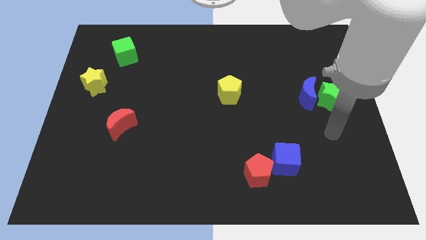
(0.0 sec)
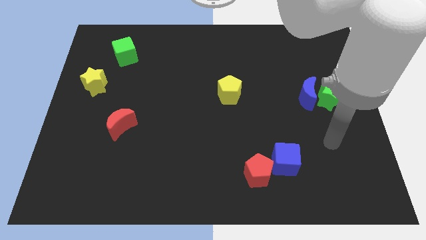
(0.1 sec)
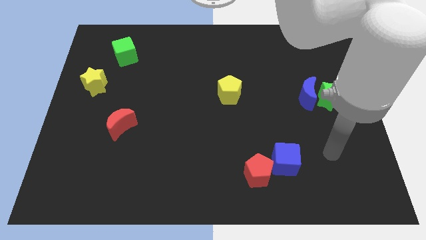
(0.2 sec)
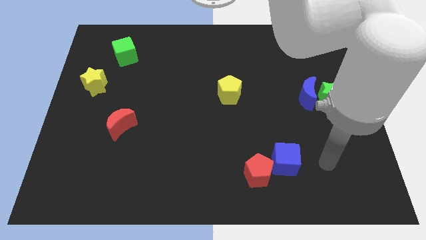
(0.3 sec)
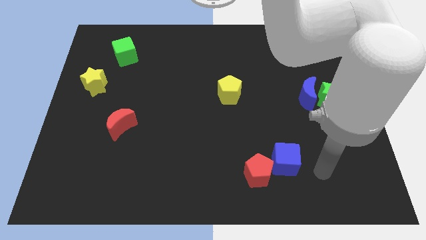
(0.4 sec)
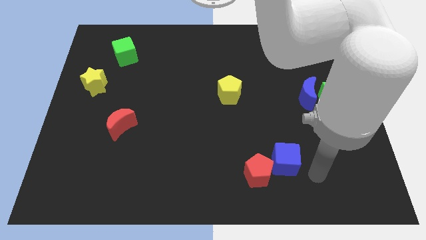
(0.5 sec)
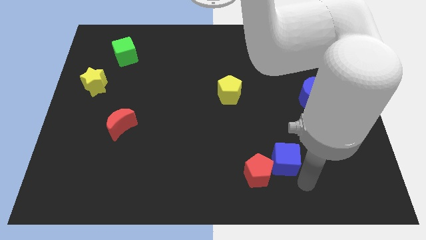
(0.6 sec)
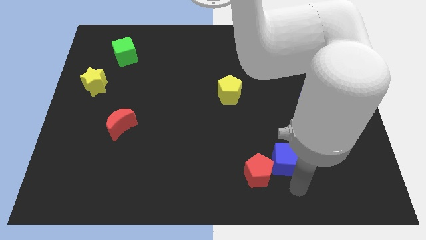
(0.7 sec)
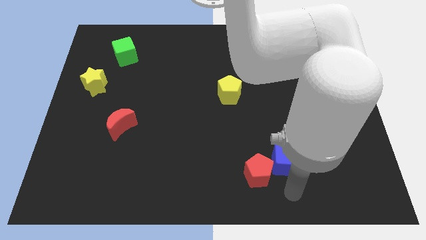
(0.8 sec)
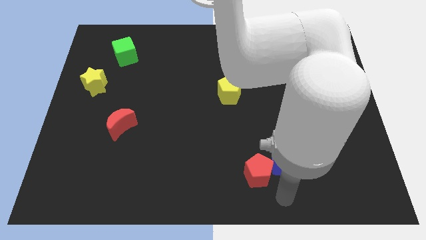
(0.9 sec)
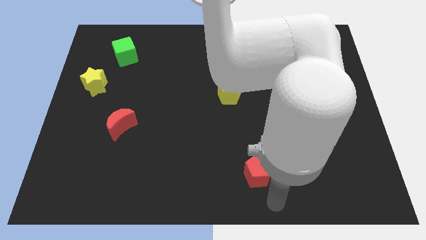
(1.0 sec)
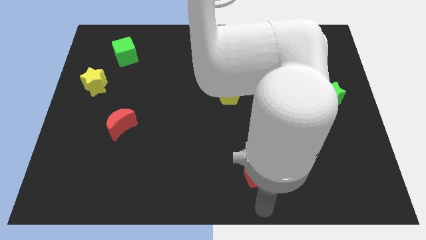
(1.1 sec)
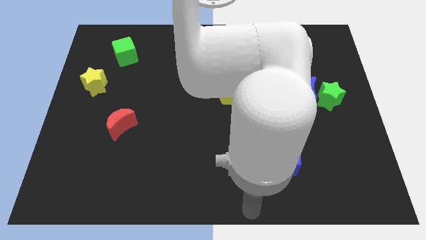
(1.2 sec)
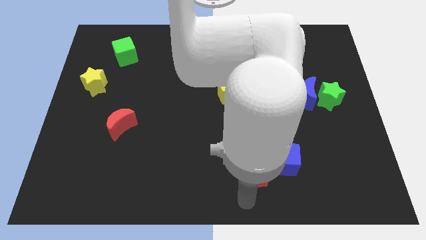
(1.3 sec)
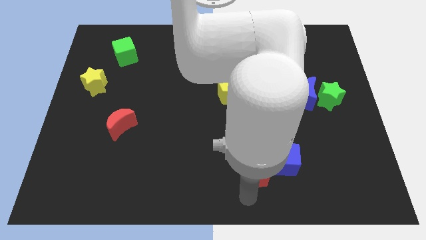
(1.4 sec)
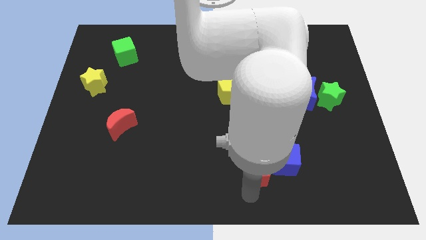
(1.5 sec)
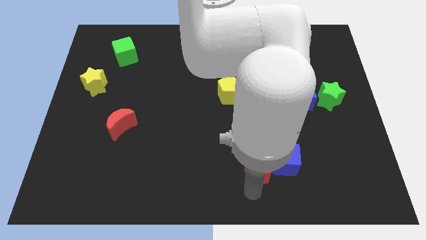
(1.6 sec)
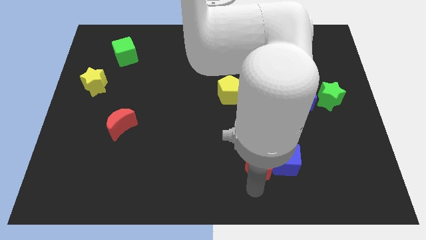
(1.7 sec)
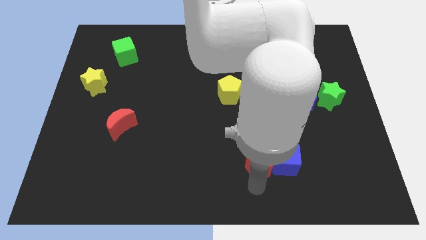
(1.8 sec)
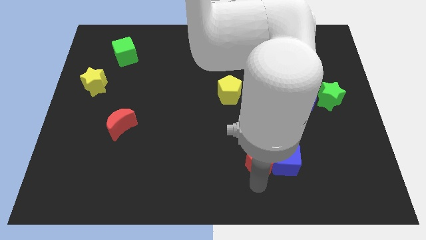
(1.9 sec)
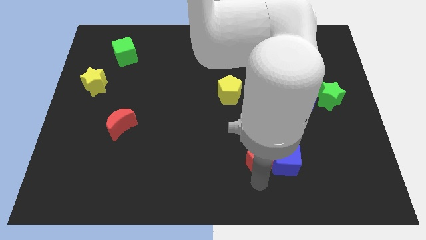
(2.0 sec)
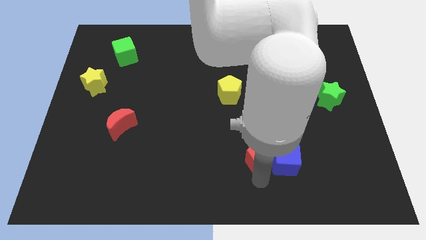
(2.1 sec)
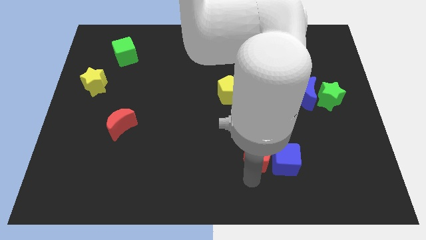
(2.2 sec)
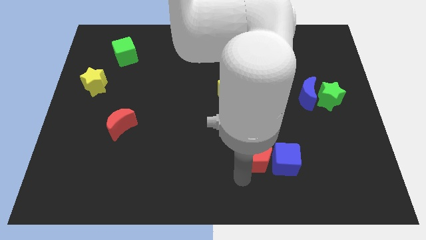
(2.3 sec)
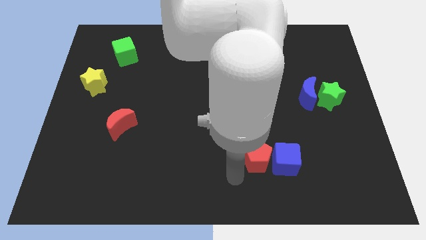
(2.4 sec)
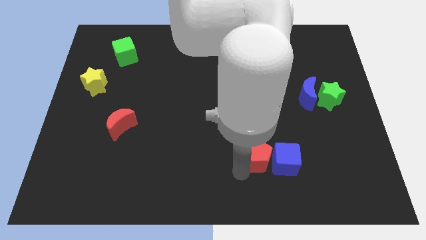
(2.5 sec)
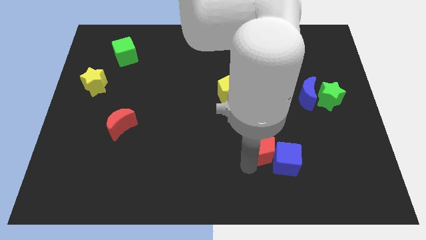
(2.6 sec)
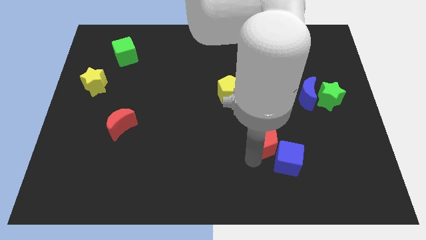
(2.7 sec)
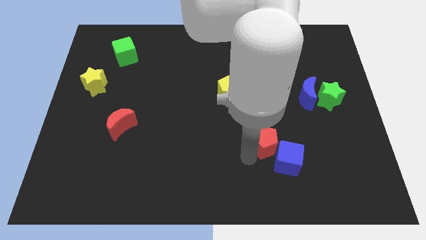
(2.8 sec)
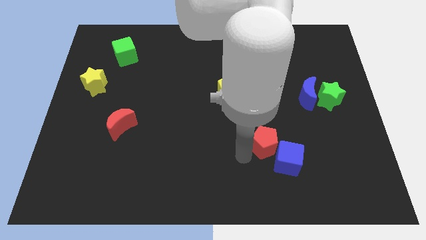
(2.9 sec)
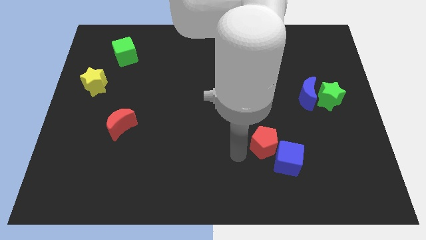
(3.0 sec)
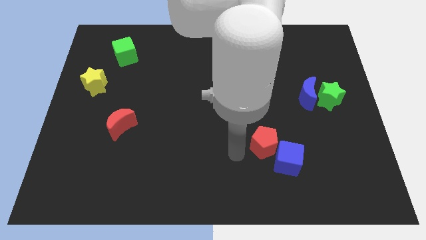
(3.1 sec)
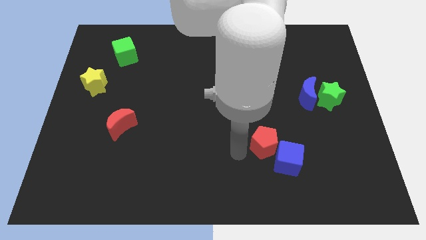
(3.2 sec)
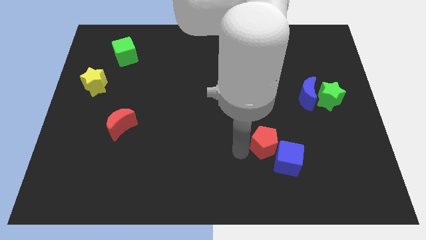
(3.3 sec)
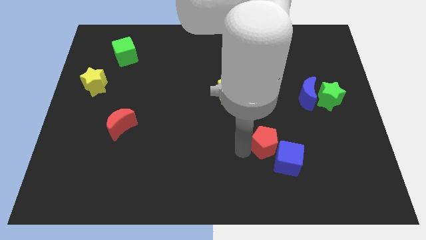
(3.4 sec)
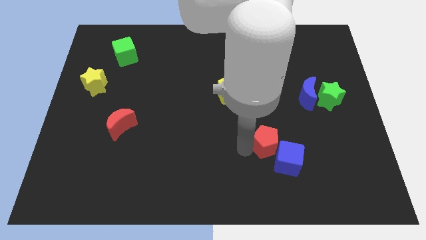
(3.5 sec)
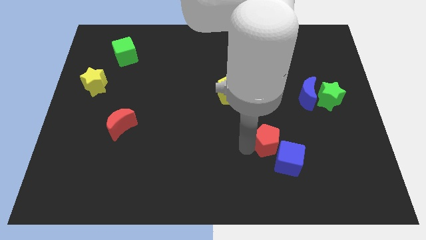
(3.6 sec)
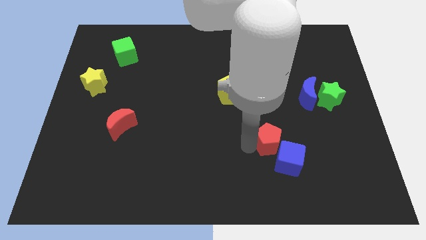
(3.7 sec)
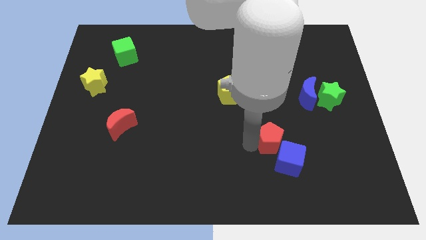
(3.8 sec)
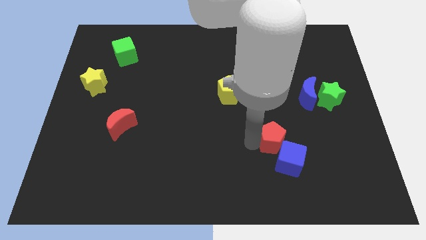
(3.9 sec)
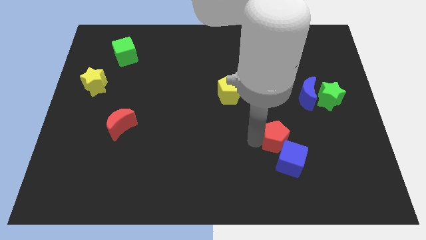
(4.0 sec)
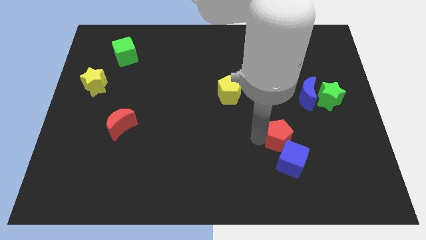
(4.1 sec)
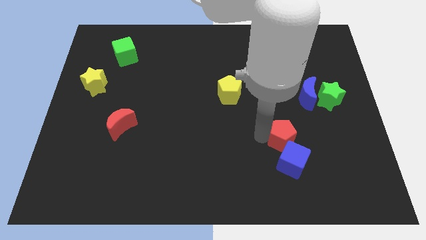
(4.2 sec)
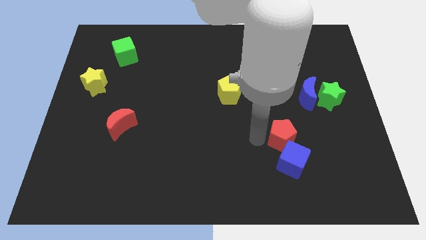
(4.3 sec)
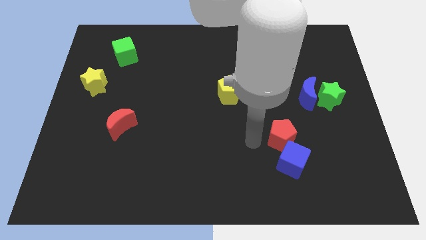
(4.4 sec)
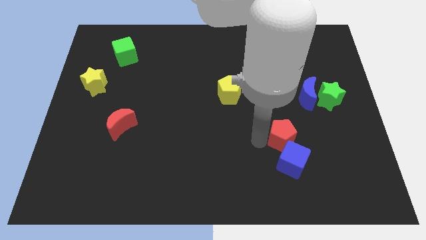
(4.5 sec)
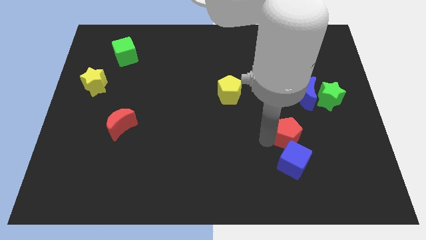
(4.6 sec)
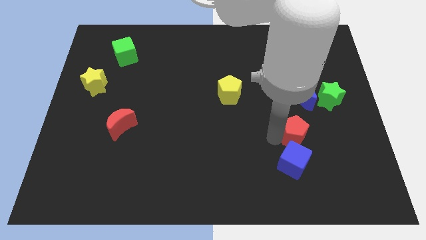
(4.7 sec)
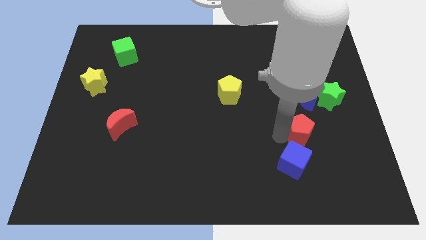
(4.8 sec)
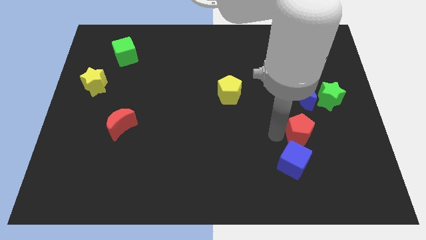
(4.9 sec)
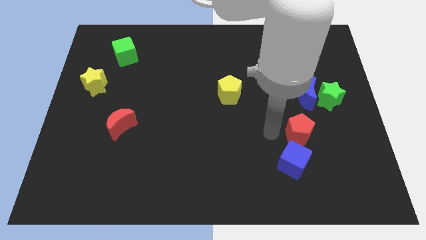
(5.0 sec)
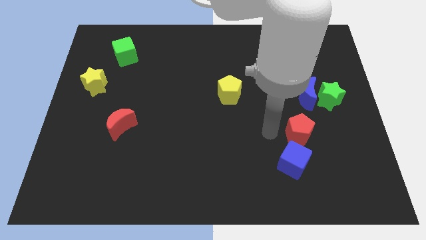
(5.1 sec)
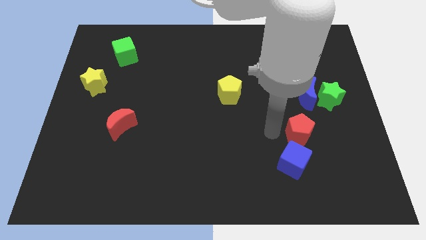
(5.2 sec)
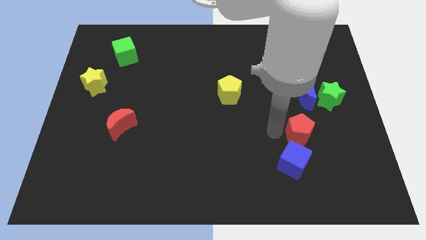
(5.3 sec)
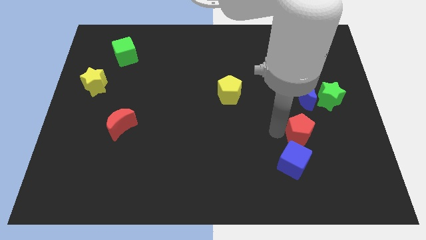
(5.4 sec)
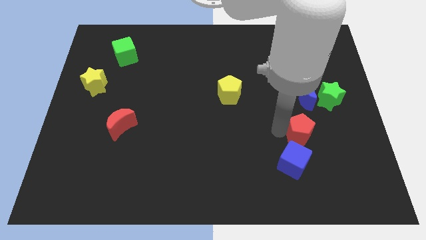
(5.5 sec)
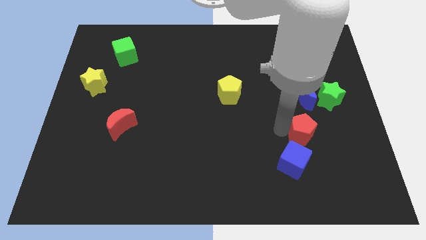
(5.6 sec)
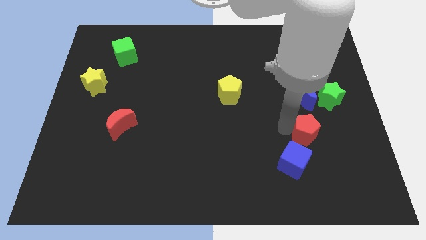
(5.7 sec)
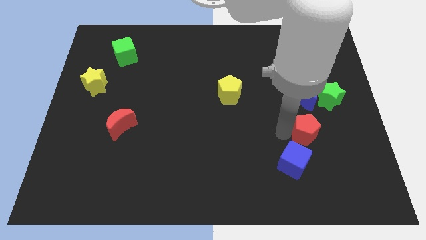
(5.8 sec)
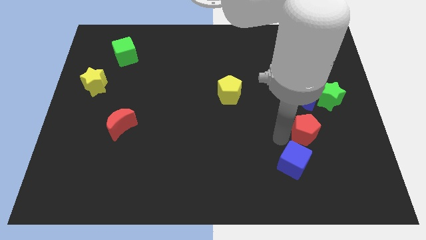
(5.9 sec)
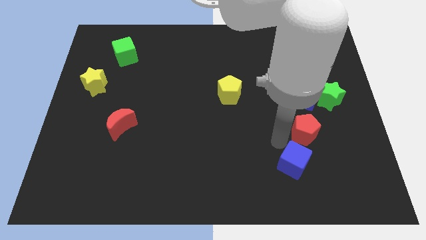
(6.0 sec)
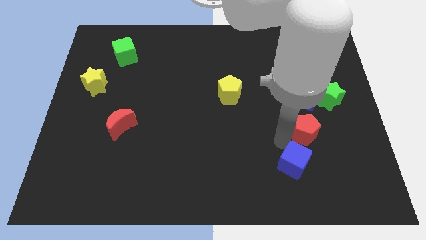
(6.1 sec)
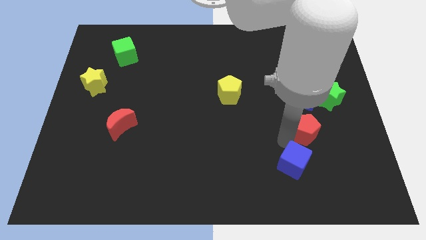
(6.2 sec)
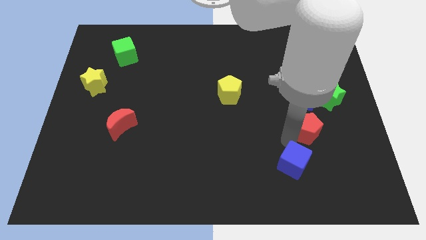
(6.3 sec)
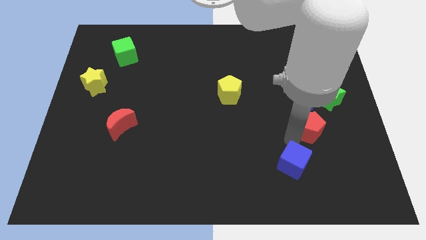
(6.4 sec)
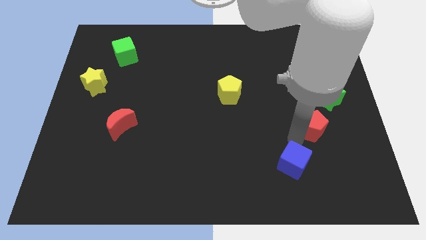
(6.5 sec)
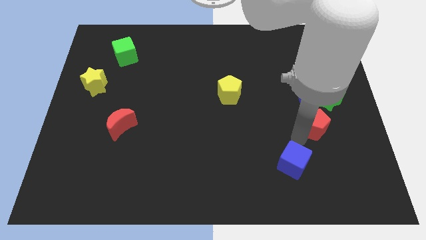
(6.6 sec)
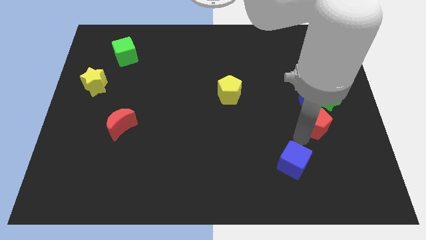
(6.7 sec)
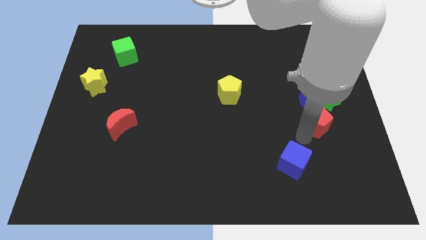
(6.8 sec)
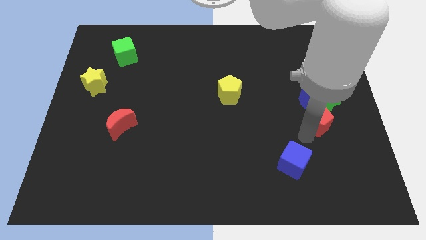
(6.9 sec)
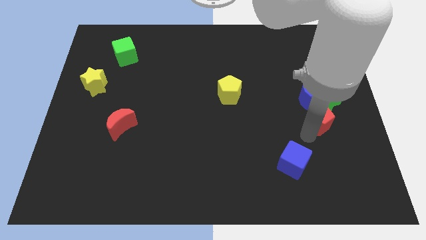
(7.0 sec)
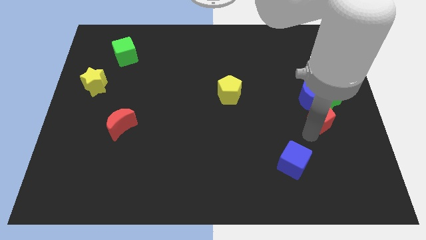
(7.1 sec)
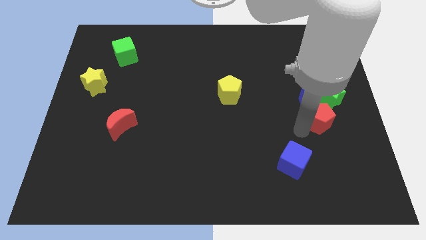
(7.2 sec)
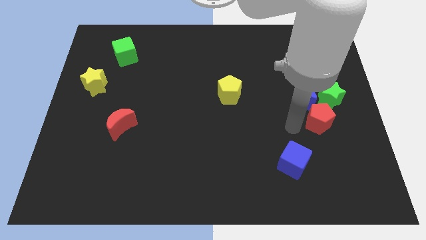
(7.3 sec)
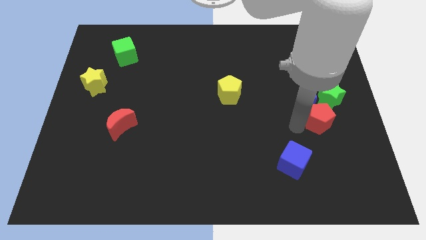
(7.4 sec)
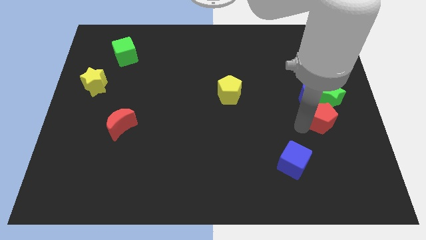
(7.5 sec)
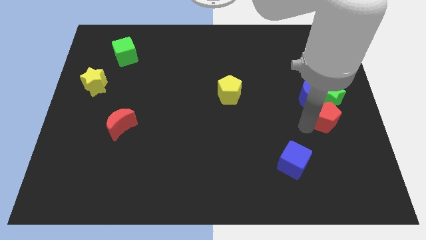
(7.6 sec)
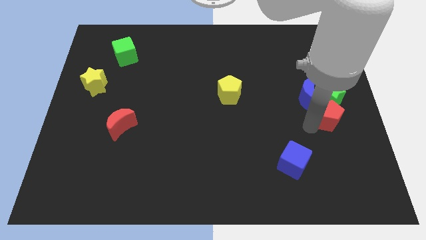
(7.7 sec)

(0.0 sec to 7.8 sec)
move the red pentagon to the center right
